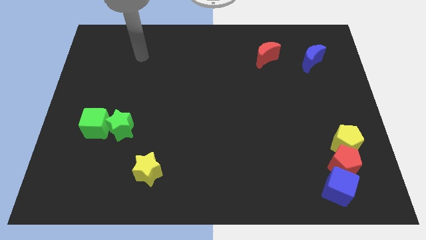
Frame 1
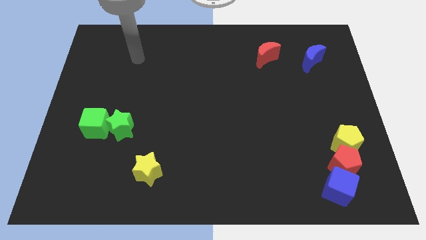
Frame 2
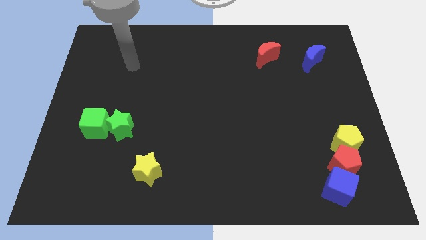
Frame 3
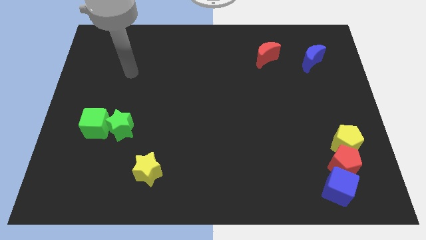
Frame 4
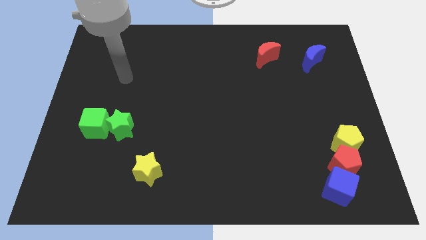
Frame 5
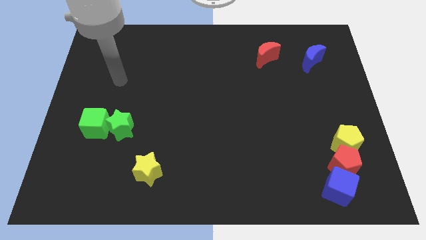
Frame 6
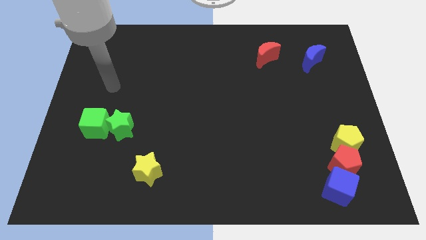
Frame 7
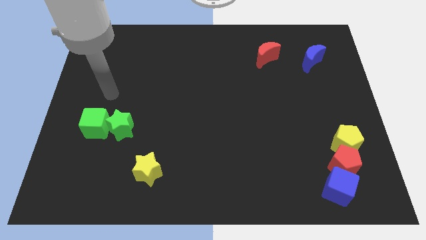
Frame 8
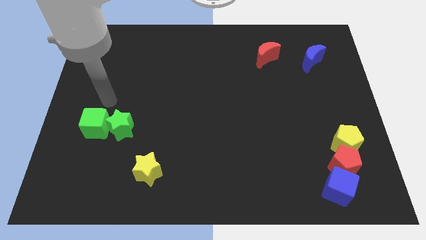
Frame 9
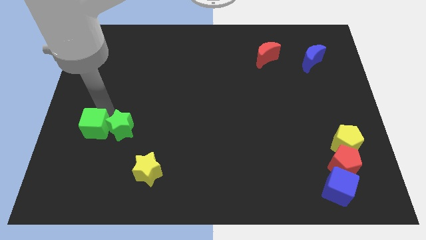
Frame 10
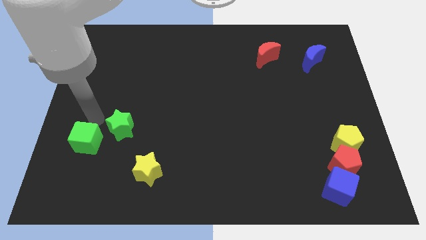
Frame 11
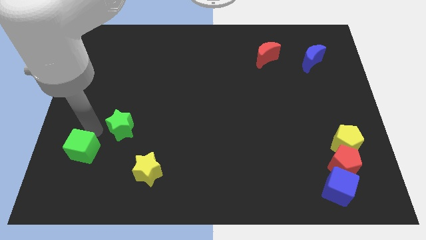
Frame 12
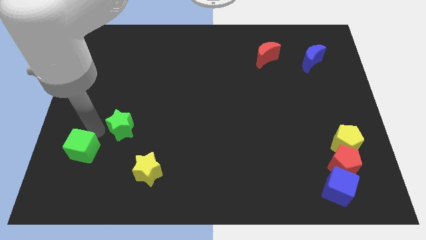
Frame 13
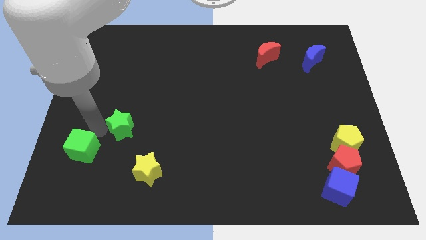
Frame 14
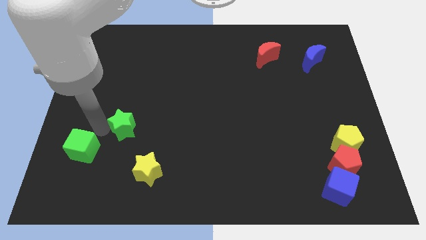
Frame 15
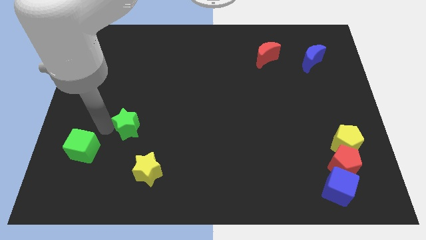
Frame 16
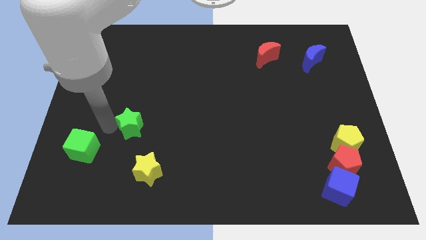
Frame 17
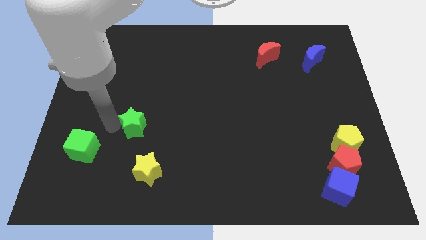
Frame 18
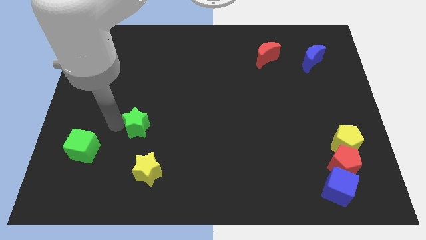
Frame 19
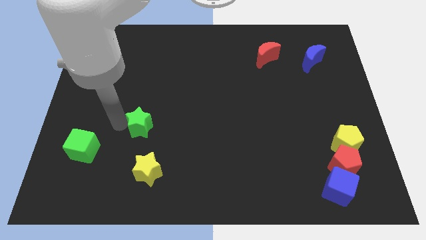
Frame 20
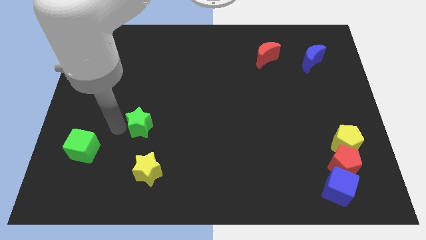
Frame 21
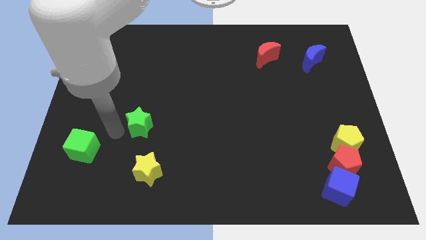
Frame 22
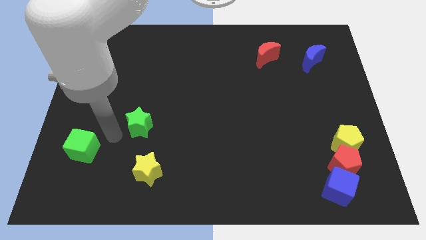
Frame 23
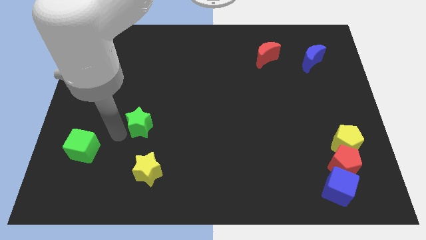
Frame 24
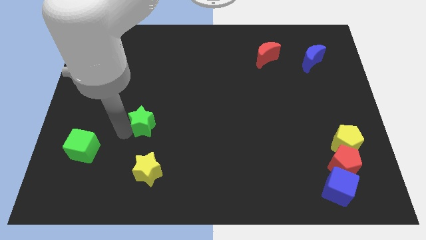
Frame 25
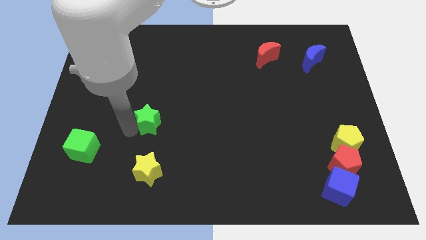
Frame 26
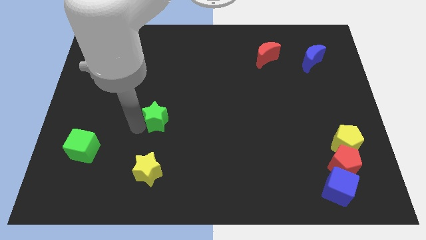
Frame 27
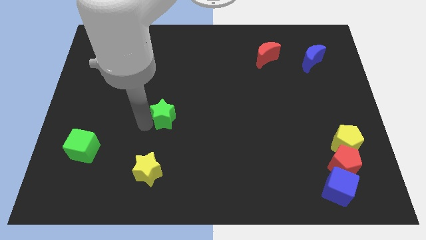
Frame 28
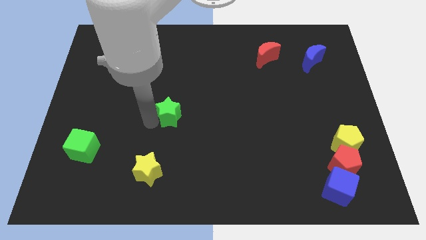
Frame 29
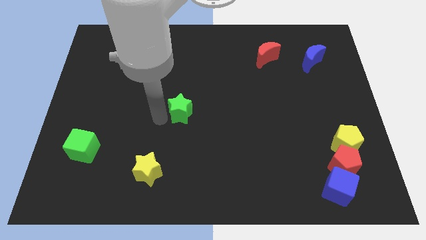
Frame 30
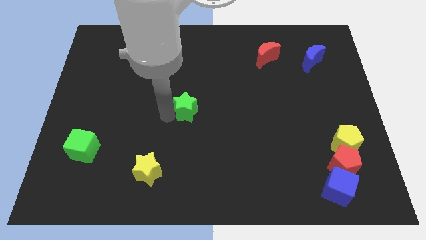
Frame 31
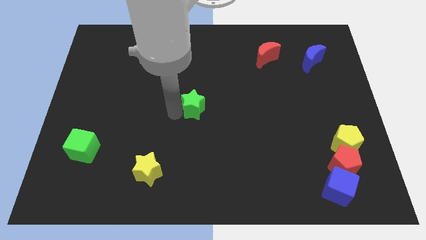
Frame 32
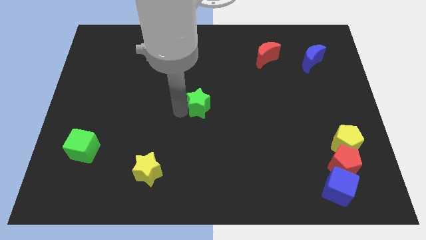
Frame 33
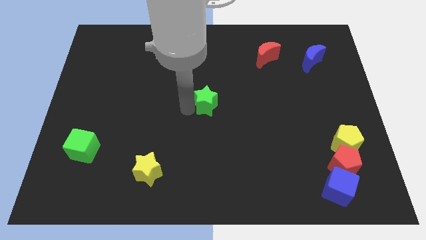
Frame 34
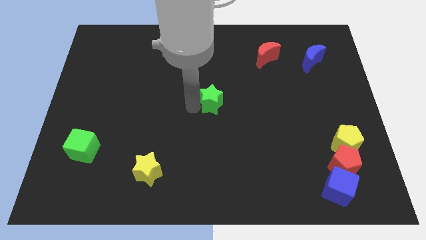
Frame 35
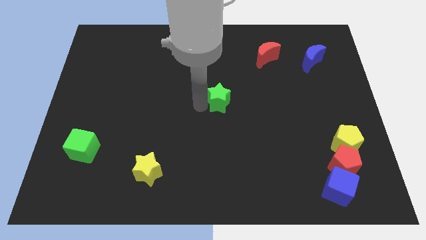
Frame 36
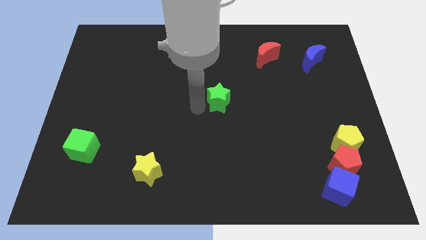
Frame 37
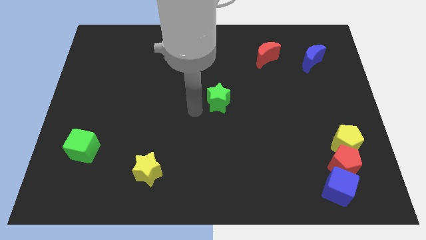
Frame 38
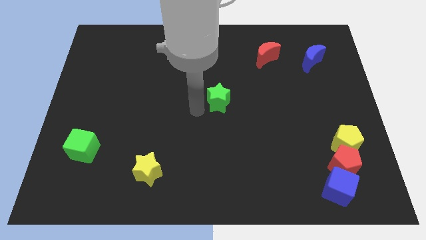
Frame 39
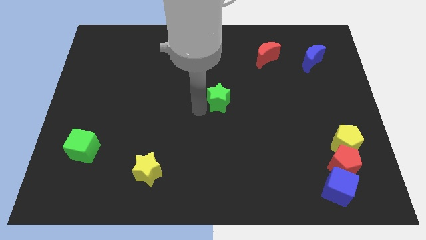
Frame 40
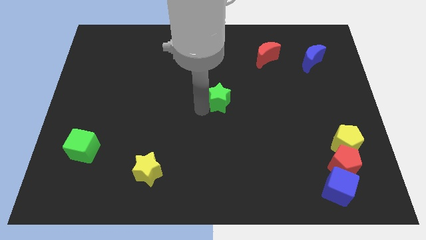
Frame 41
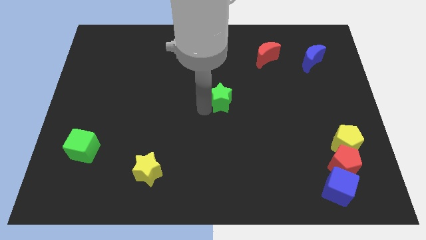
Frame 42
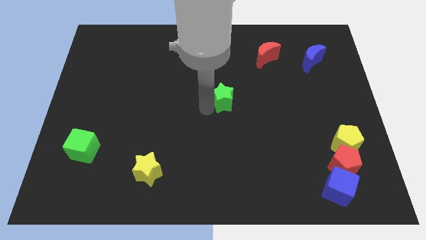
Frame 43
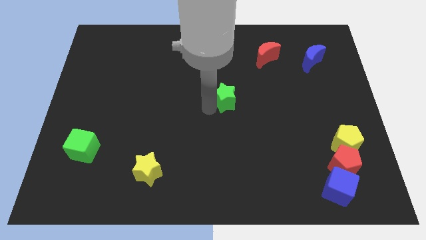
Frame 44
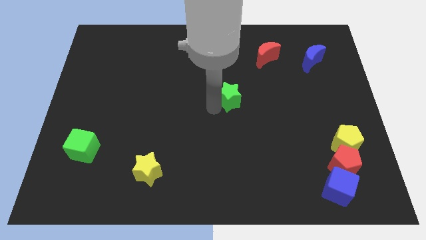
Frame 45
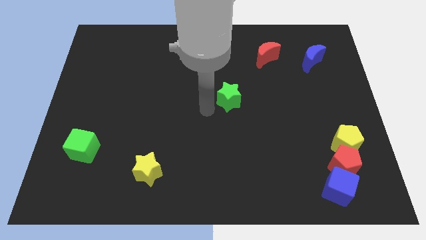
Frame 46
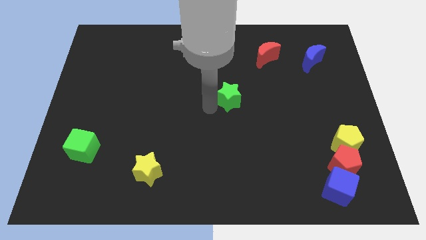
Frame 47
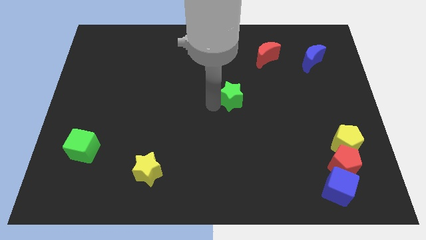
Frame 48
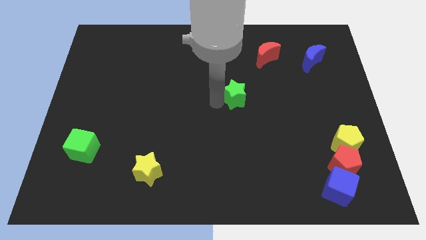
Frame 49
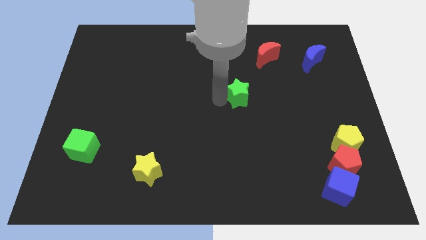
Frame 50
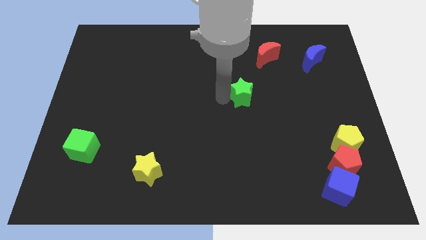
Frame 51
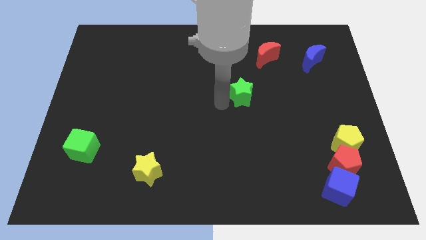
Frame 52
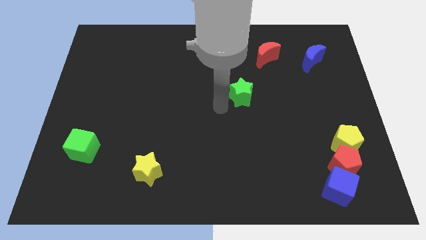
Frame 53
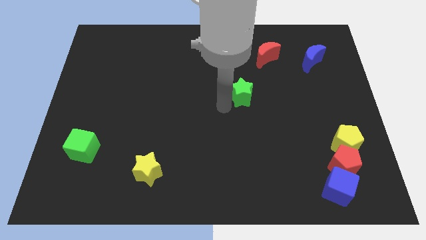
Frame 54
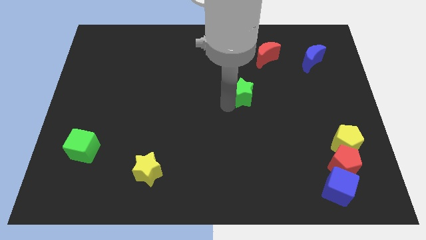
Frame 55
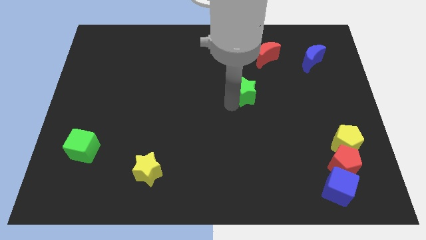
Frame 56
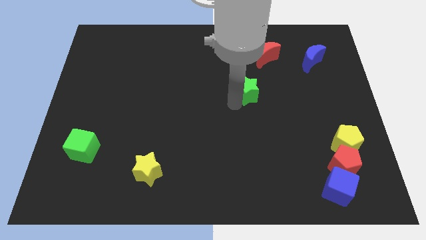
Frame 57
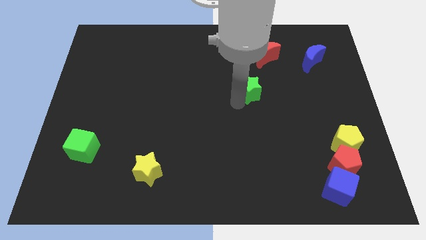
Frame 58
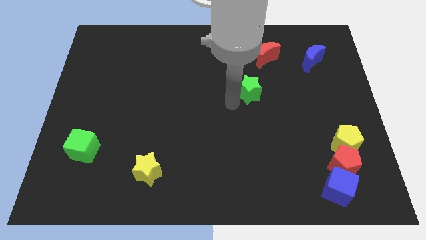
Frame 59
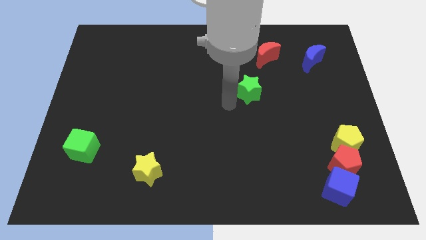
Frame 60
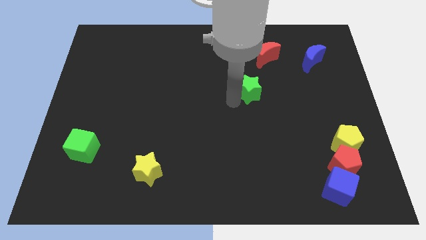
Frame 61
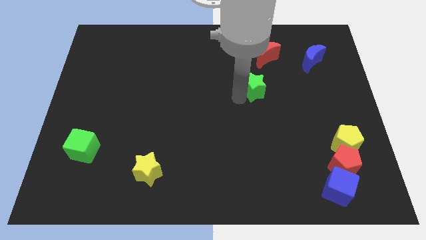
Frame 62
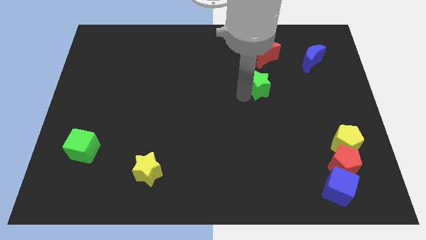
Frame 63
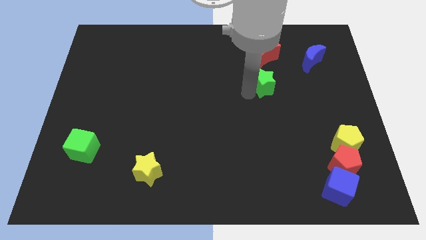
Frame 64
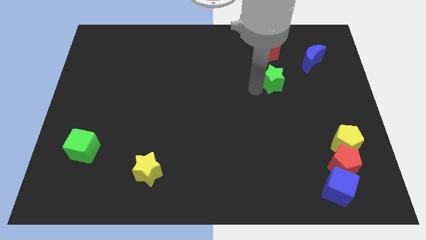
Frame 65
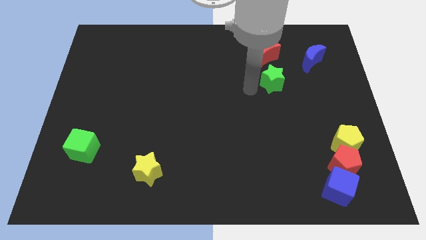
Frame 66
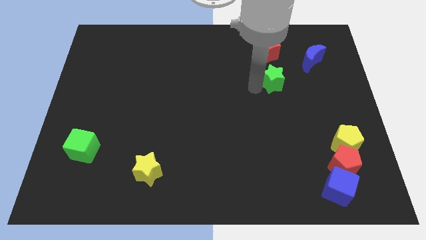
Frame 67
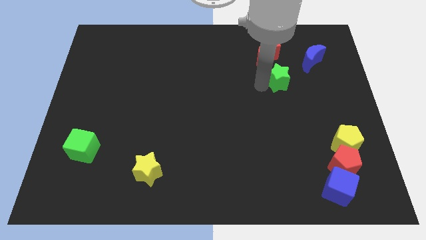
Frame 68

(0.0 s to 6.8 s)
push the green star diagonally down and to the left of the blue moon
